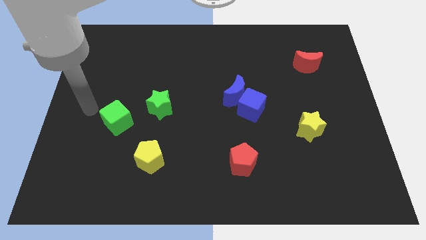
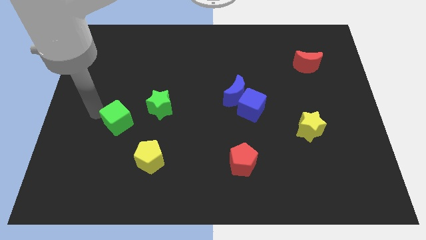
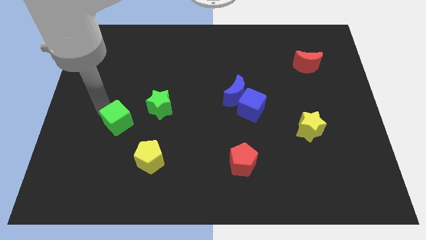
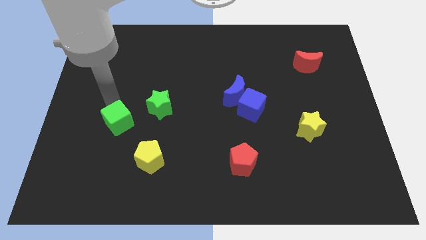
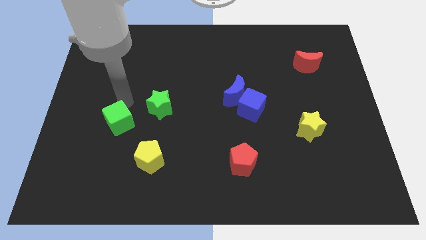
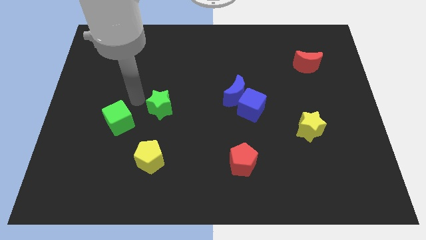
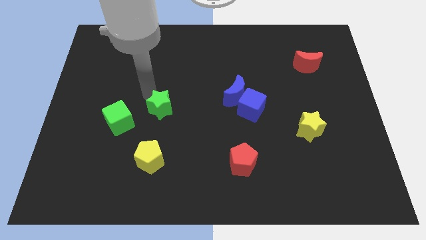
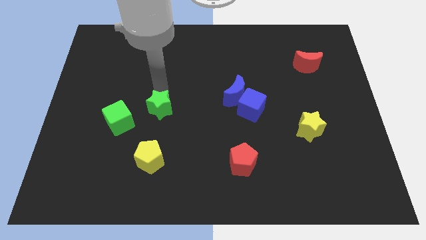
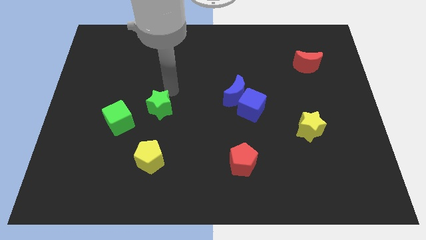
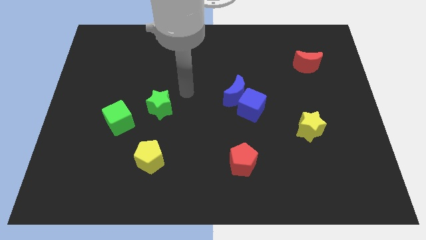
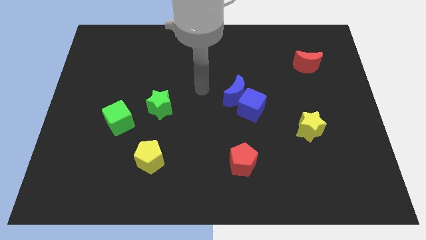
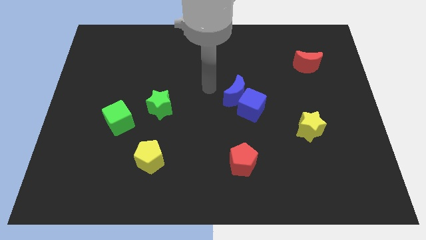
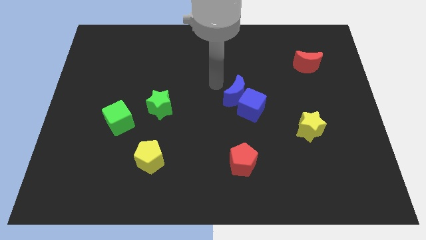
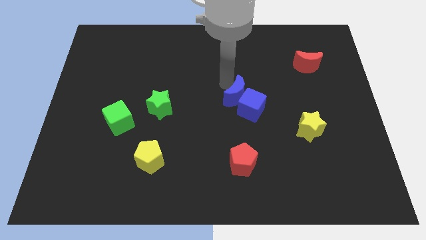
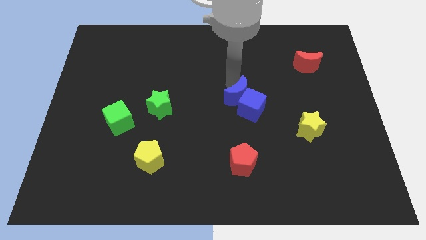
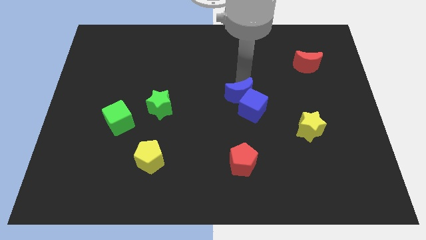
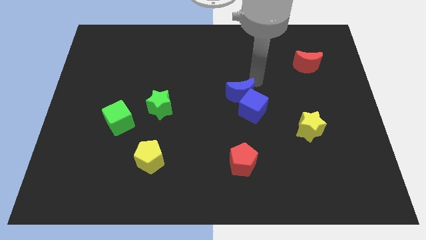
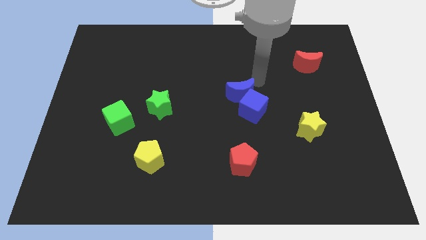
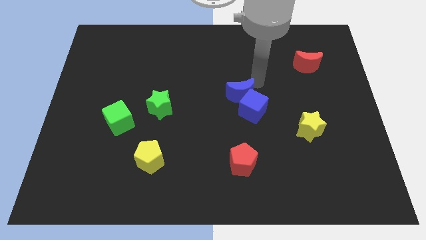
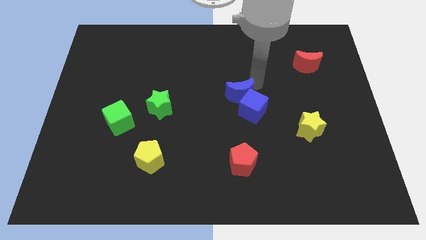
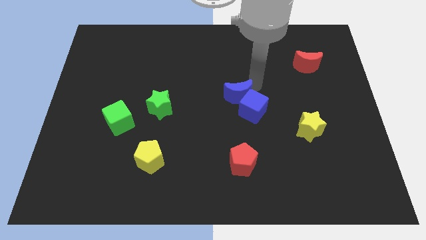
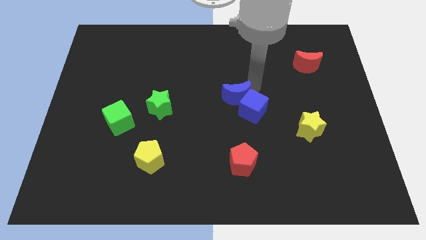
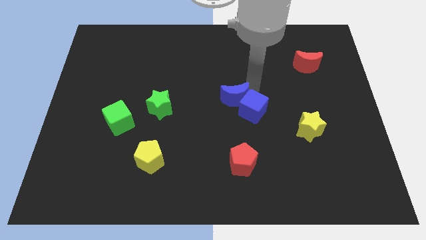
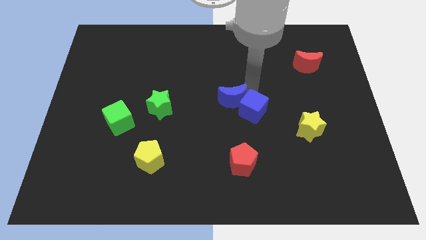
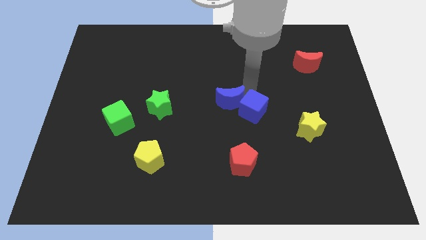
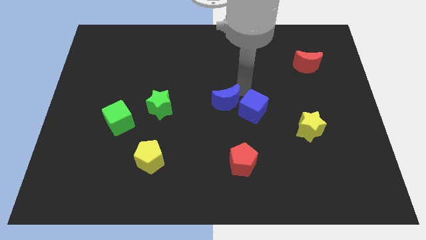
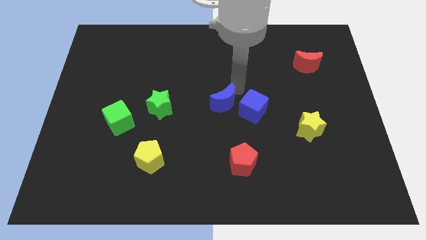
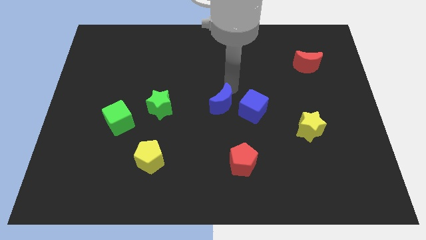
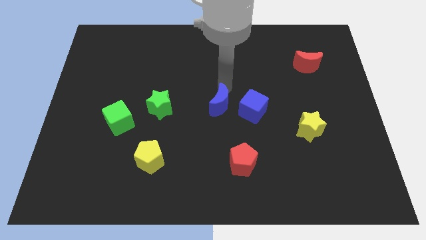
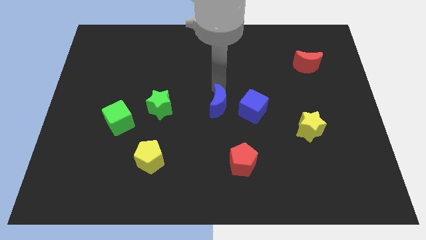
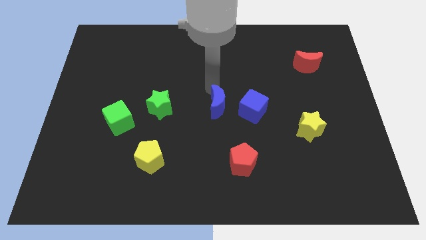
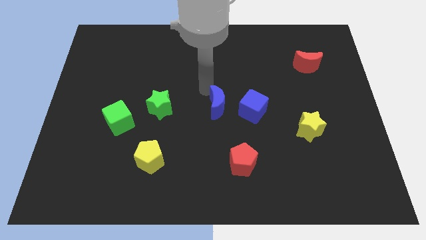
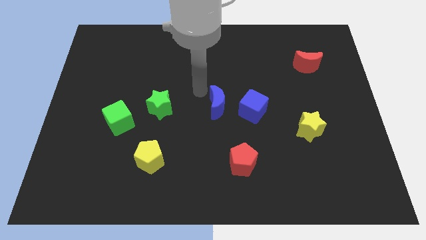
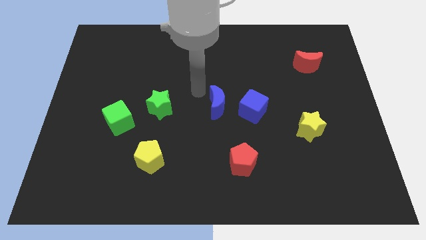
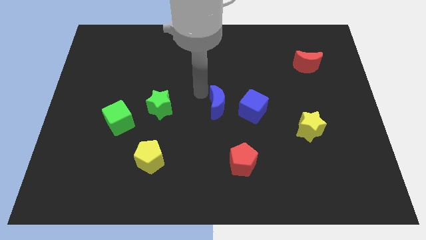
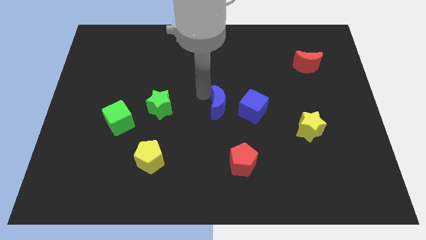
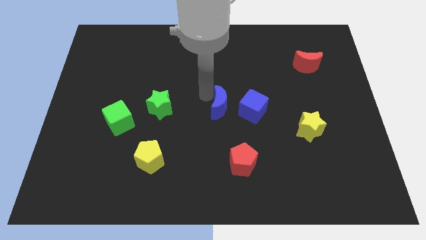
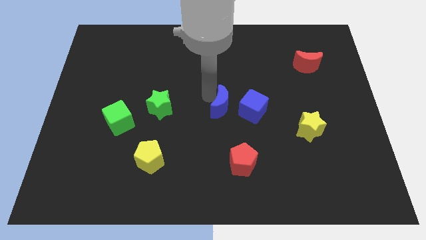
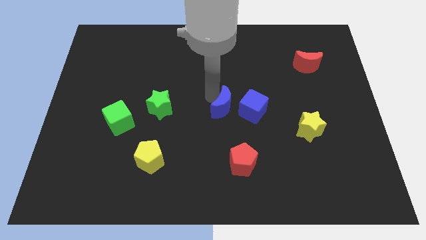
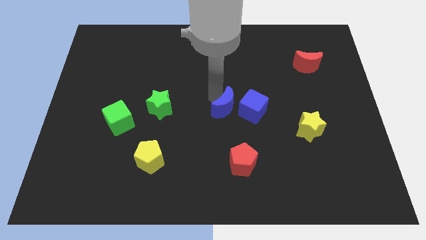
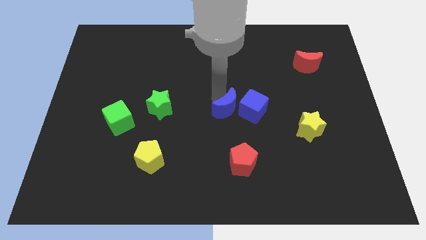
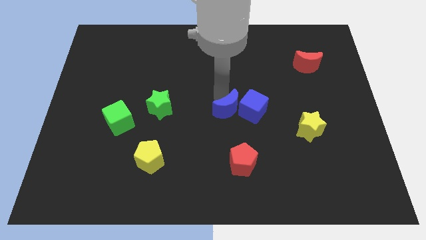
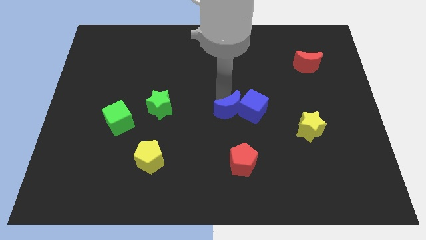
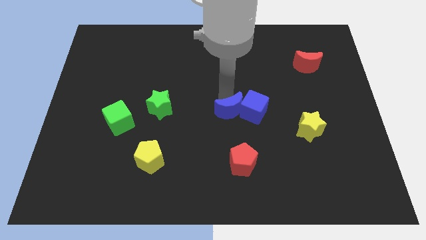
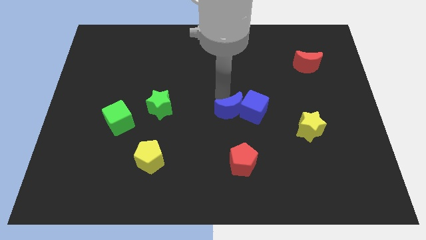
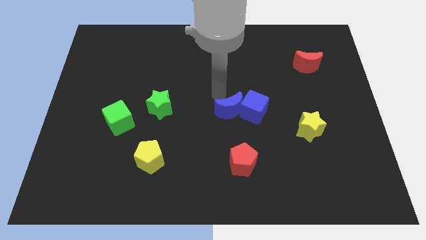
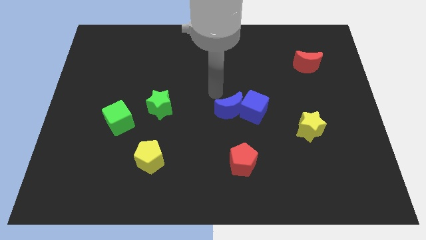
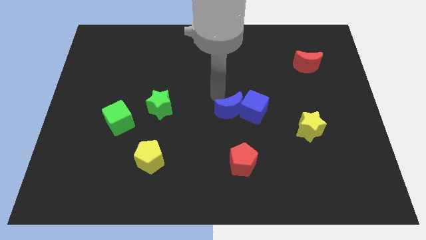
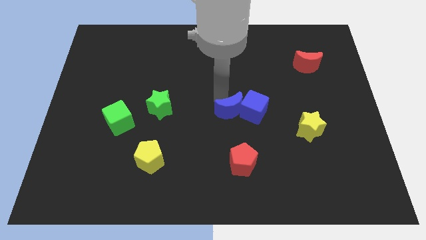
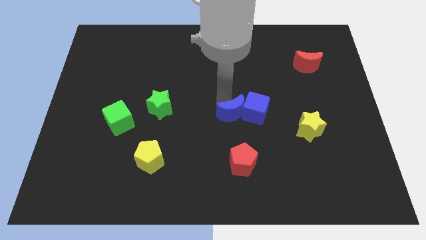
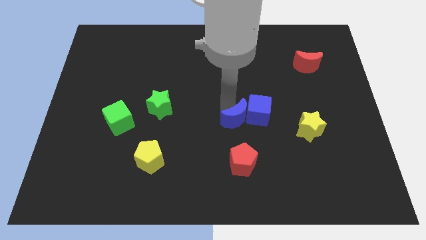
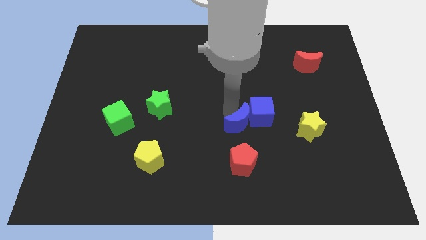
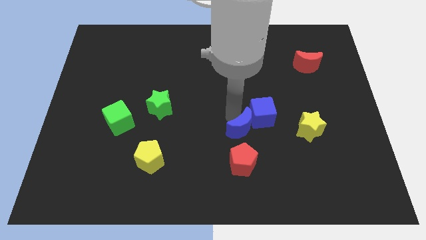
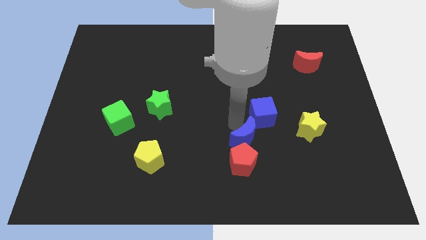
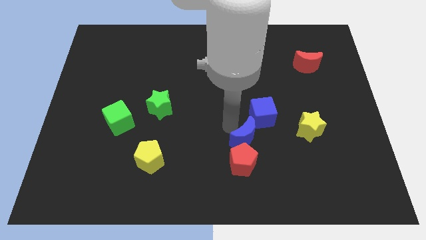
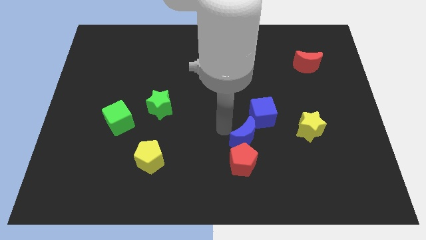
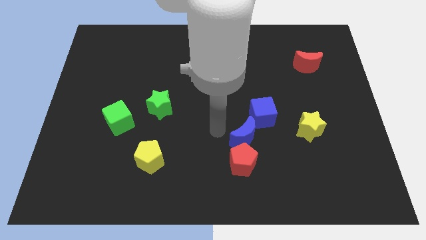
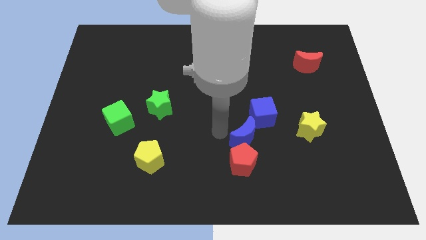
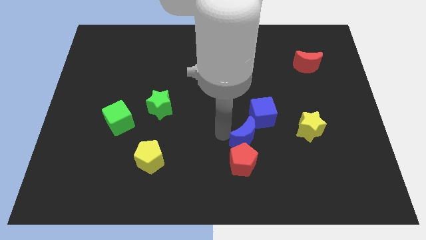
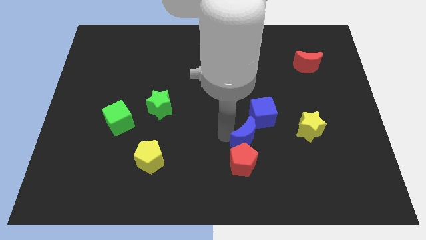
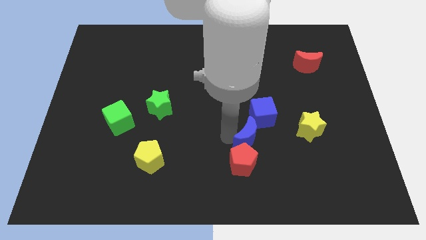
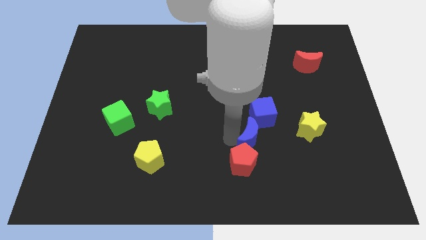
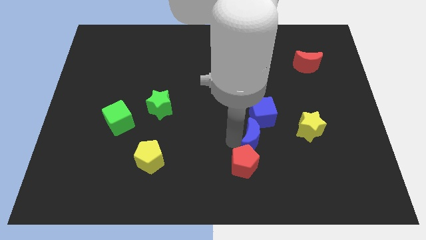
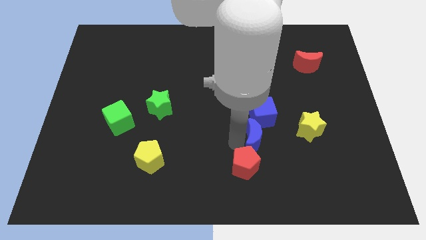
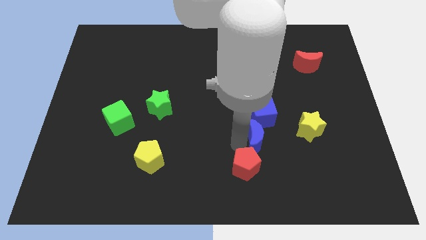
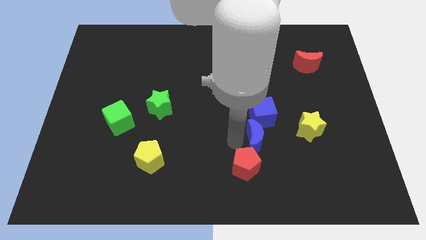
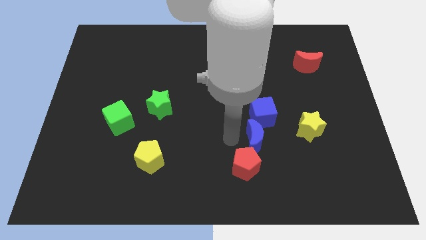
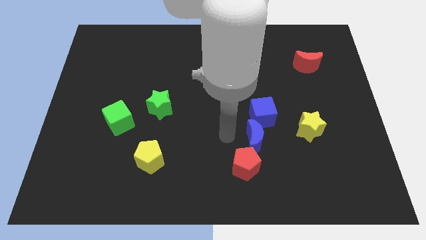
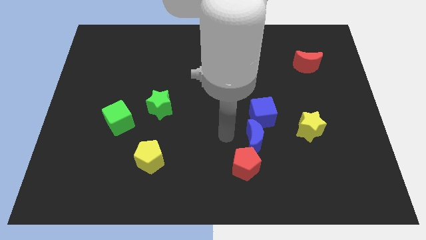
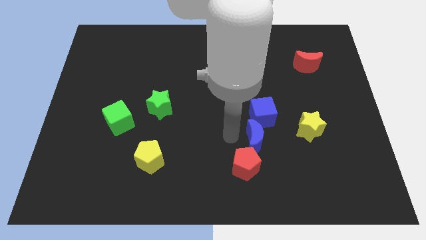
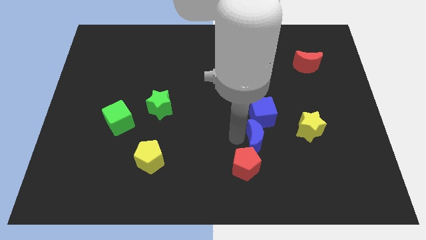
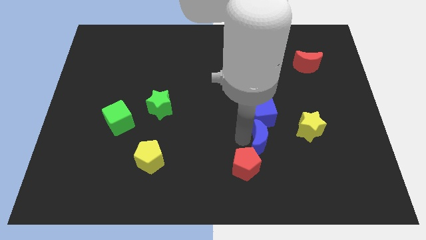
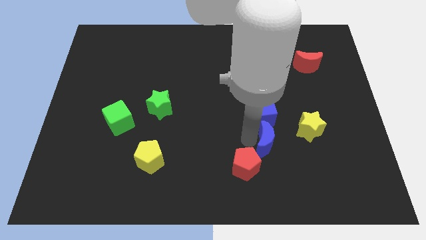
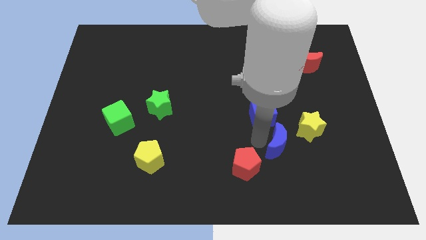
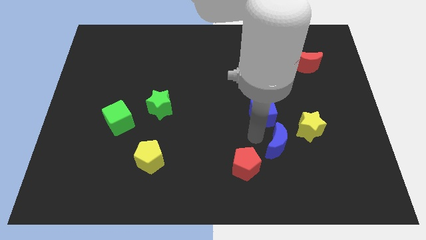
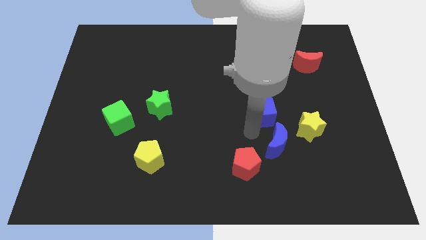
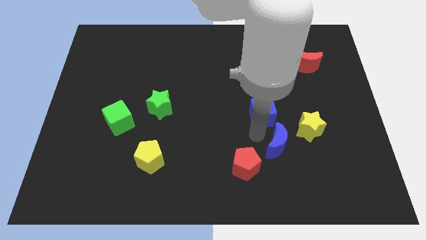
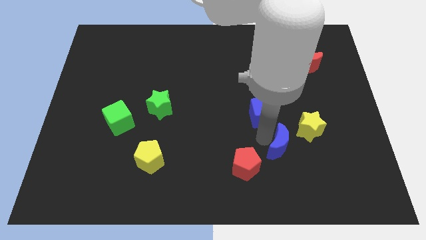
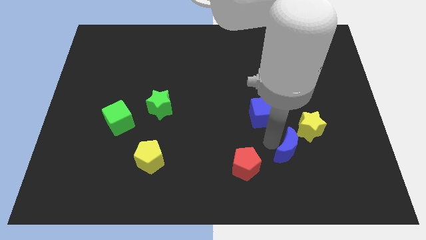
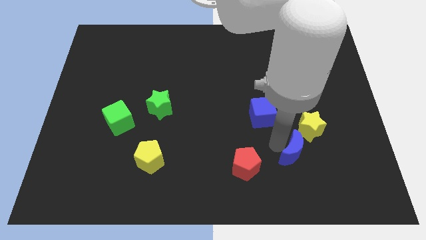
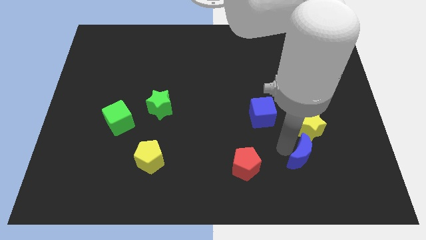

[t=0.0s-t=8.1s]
move the blue moon downwards and to the right

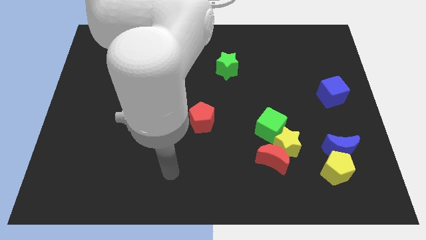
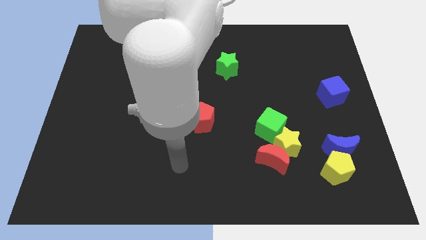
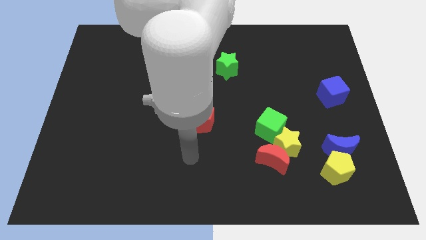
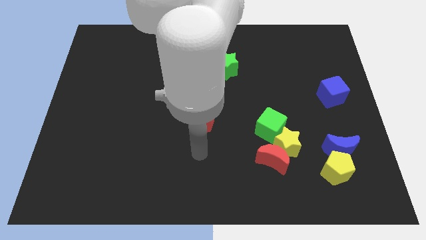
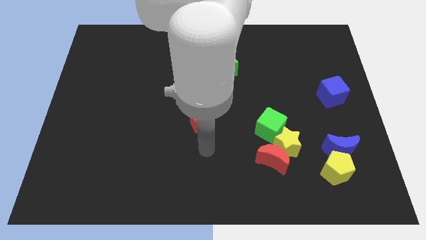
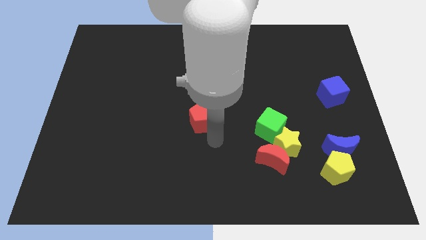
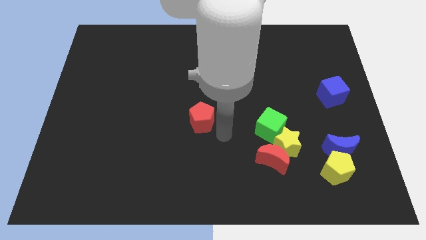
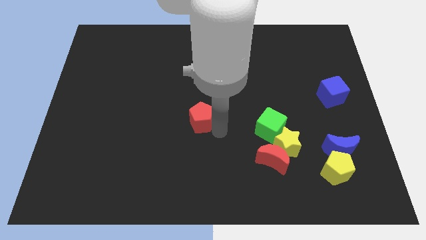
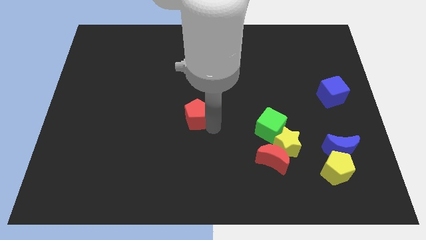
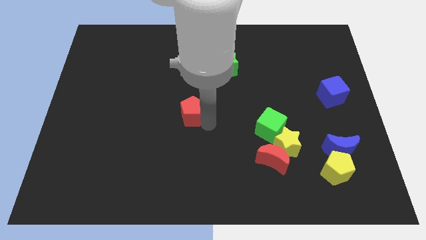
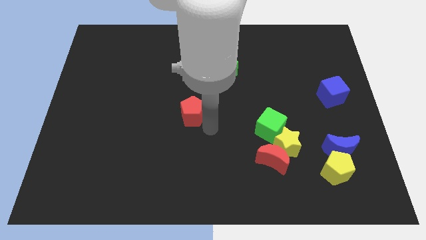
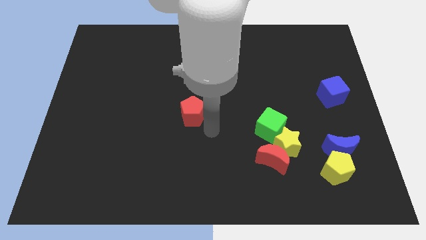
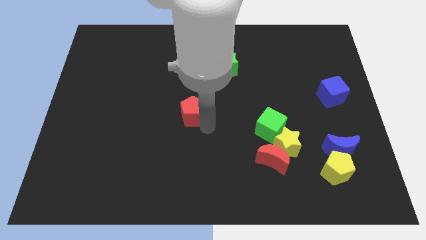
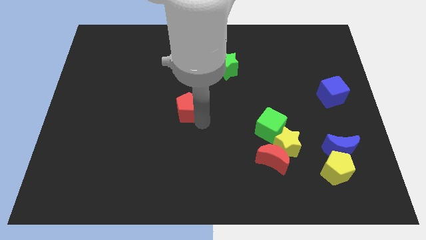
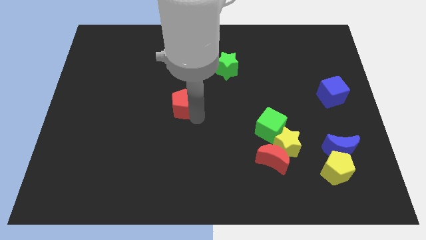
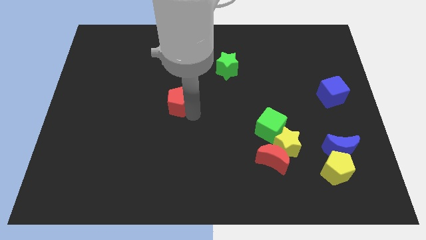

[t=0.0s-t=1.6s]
slightly move the red pentagon up and left diagonally
